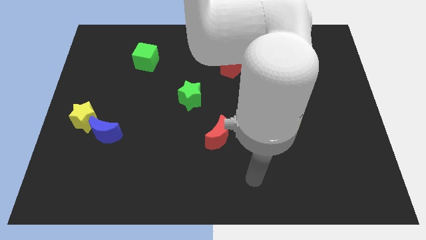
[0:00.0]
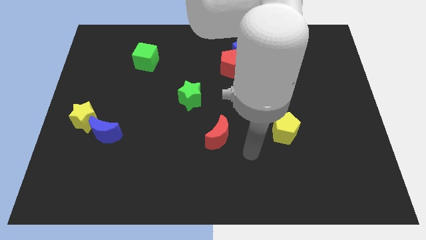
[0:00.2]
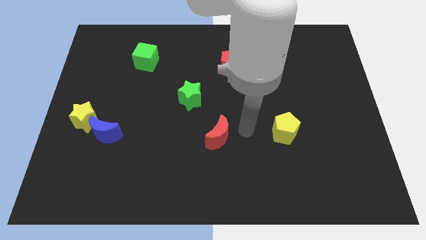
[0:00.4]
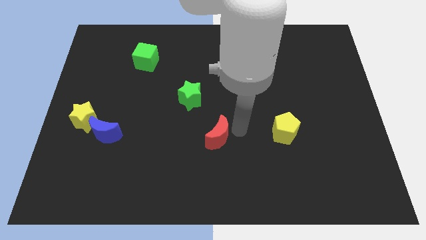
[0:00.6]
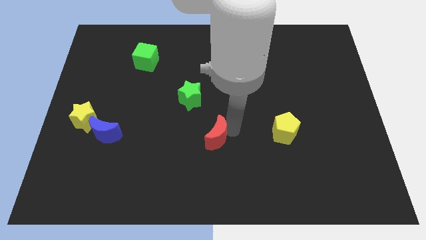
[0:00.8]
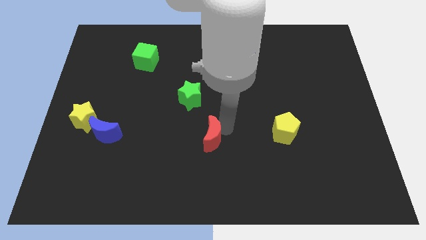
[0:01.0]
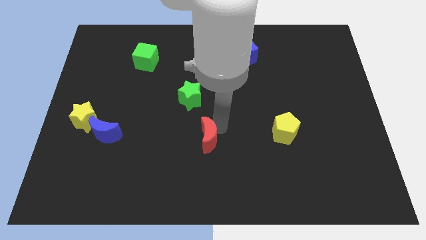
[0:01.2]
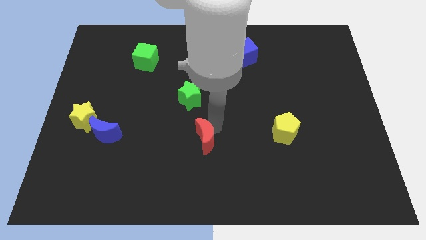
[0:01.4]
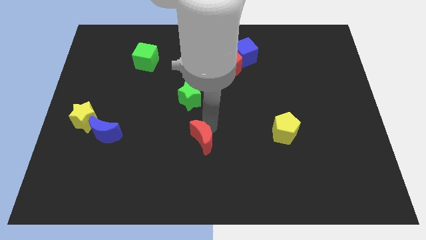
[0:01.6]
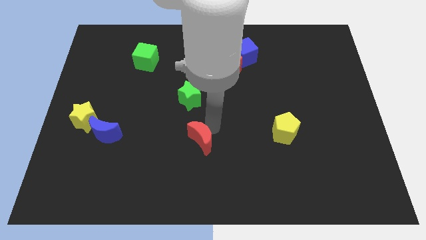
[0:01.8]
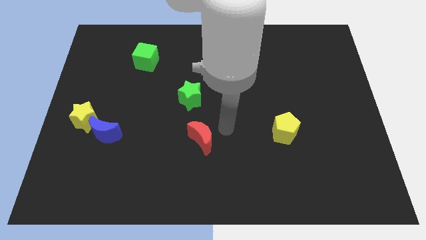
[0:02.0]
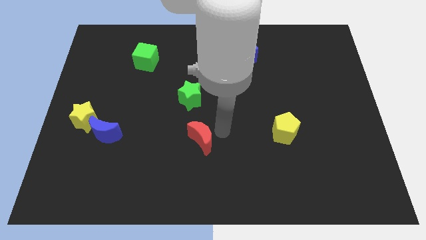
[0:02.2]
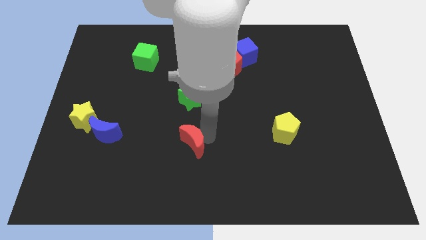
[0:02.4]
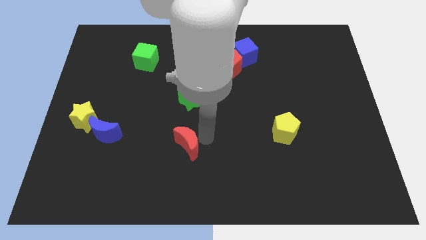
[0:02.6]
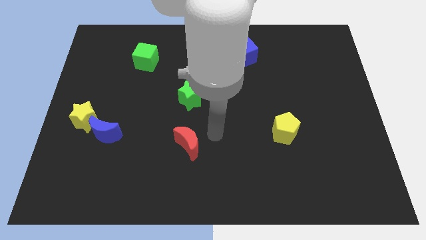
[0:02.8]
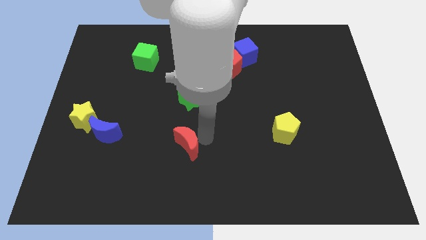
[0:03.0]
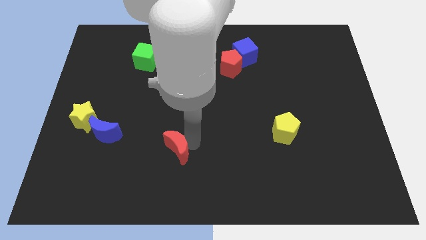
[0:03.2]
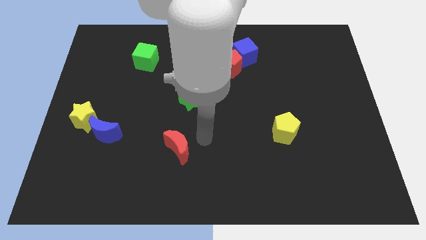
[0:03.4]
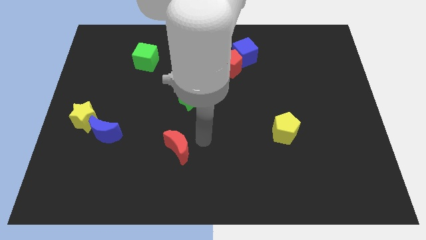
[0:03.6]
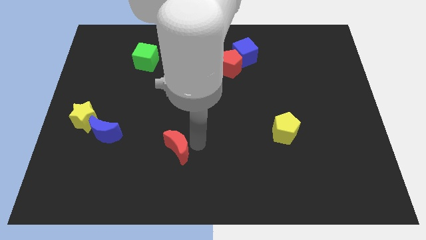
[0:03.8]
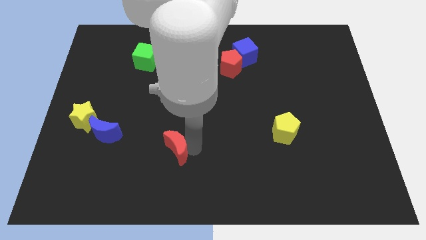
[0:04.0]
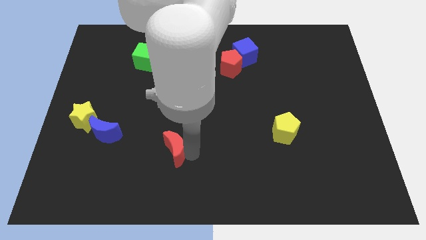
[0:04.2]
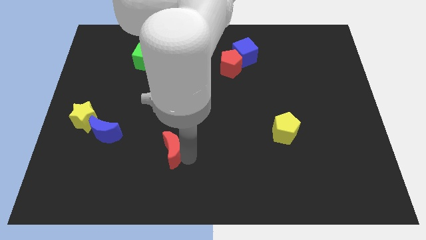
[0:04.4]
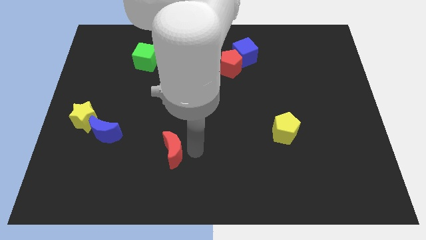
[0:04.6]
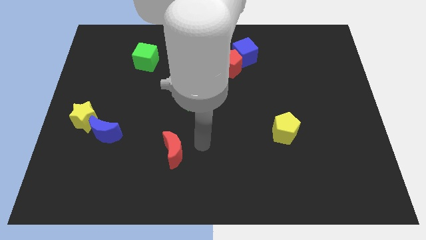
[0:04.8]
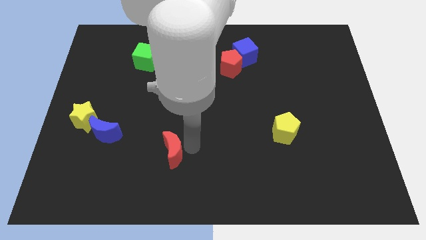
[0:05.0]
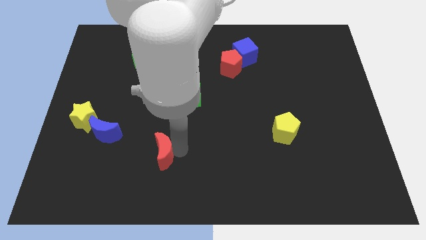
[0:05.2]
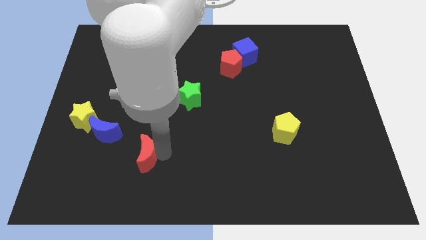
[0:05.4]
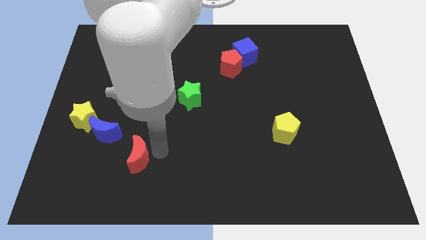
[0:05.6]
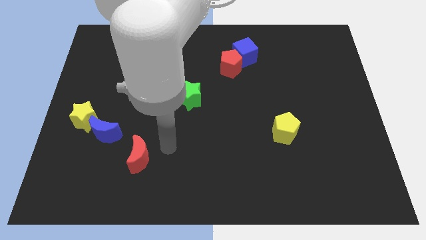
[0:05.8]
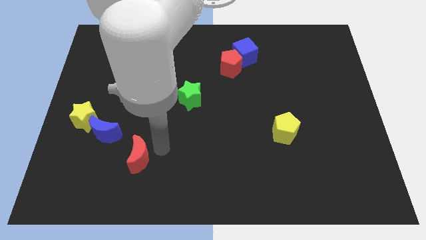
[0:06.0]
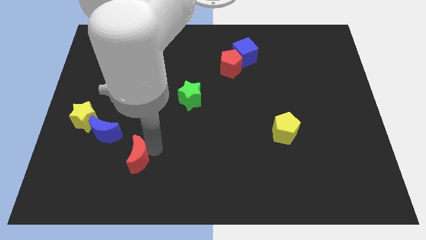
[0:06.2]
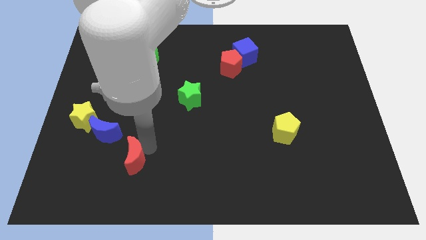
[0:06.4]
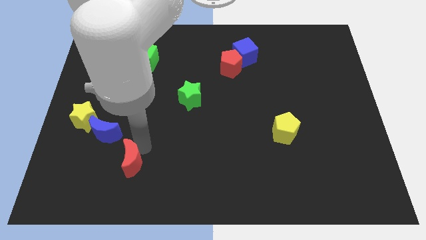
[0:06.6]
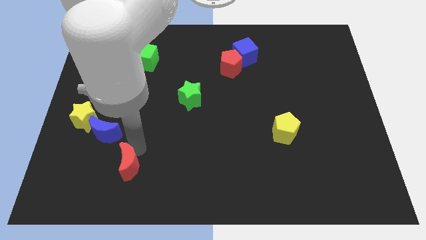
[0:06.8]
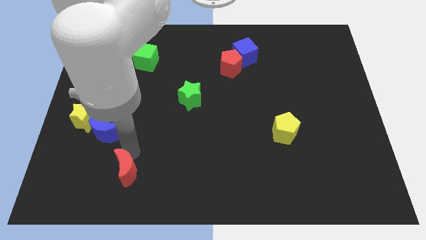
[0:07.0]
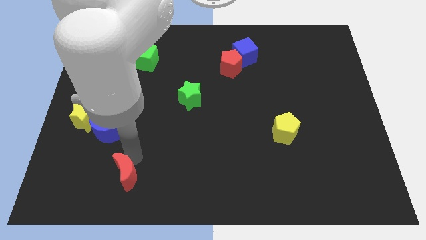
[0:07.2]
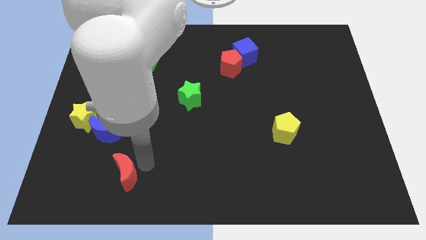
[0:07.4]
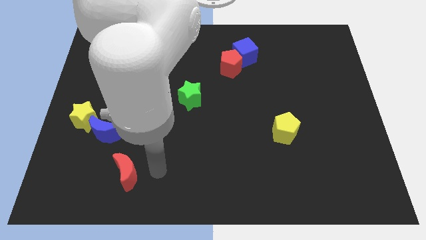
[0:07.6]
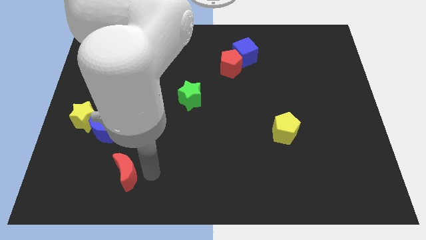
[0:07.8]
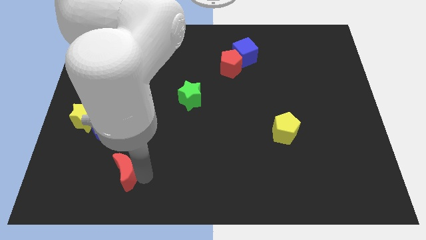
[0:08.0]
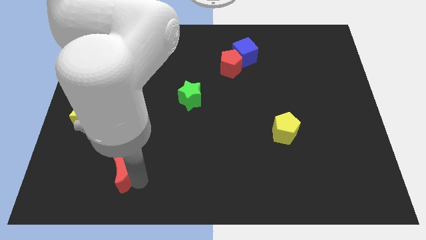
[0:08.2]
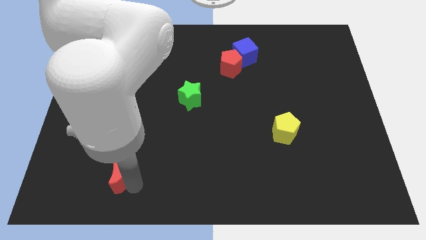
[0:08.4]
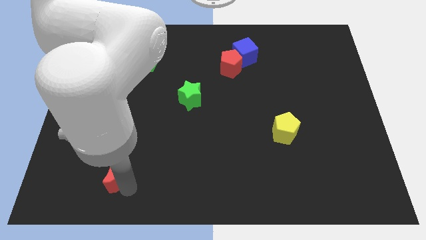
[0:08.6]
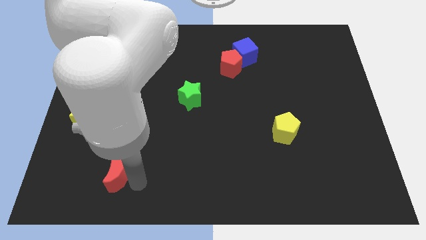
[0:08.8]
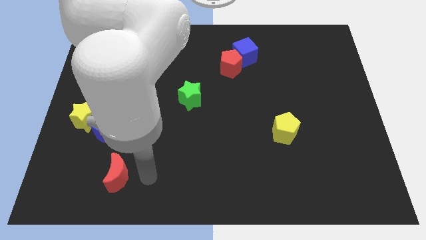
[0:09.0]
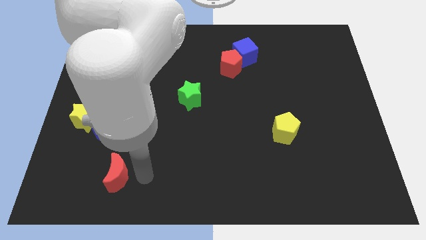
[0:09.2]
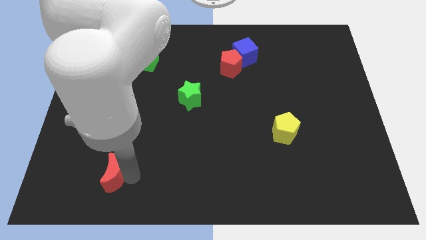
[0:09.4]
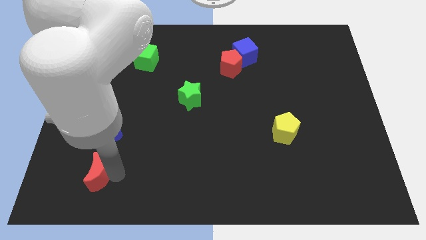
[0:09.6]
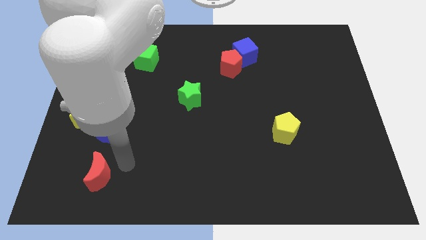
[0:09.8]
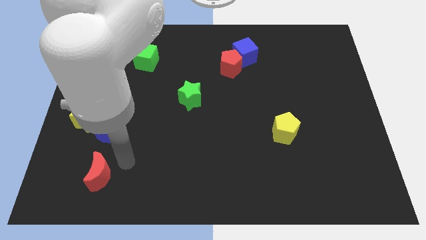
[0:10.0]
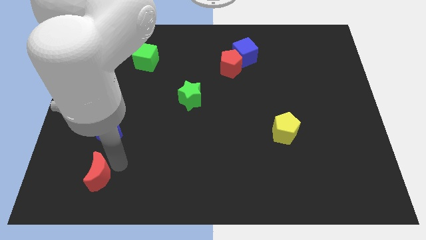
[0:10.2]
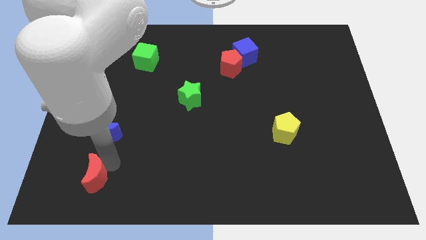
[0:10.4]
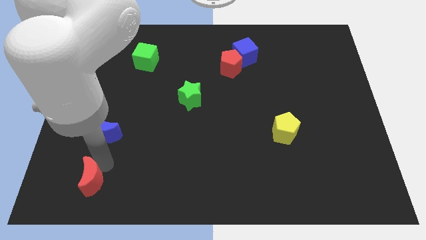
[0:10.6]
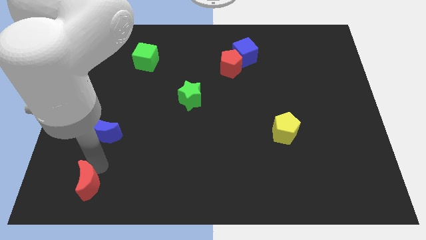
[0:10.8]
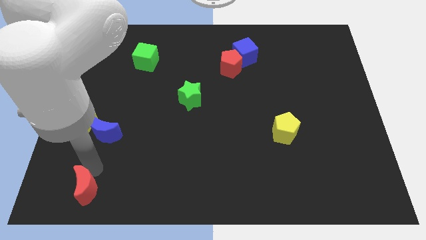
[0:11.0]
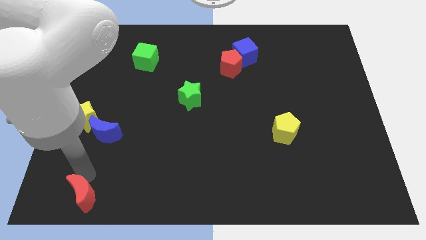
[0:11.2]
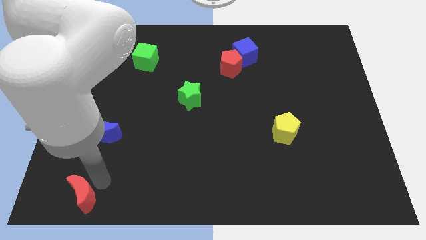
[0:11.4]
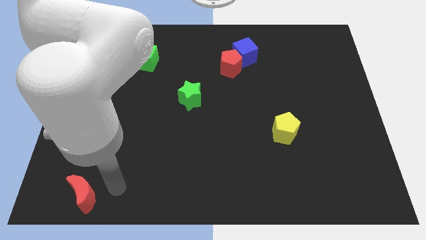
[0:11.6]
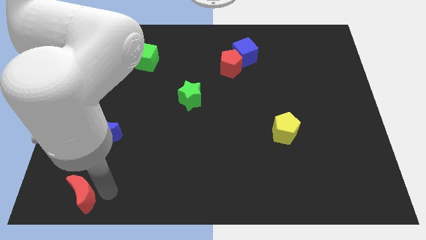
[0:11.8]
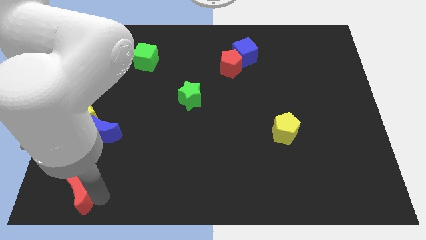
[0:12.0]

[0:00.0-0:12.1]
push the red moon to the bottom left corner

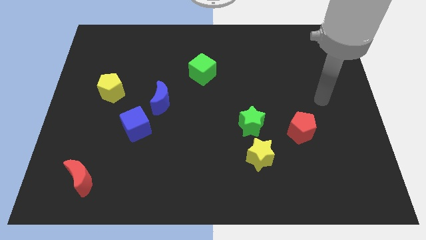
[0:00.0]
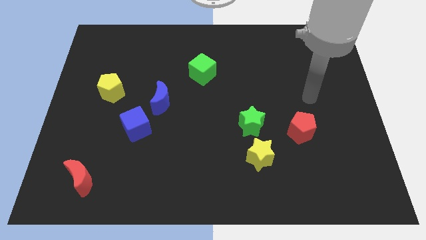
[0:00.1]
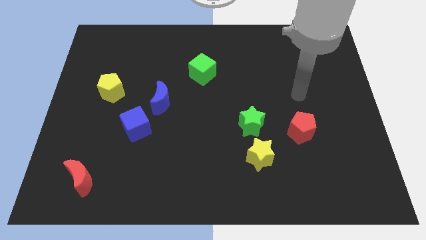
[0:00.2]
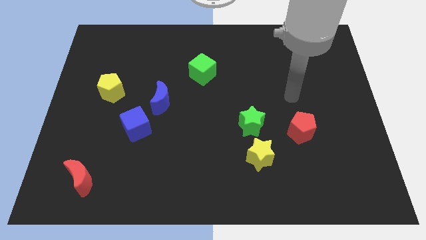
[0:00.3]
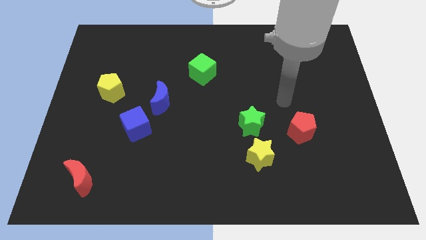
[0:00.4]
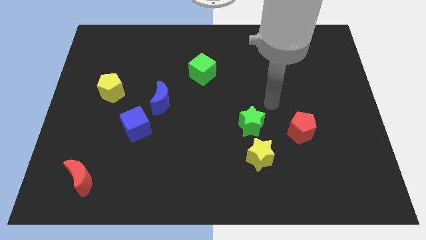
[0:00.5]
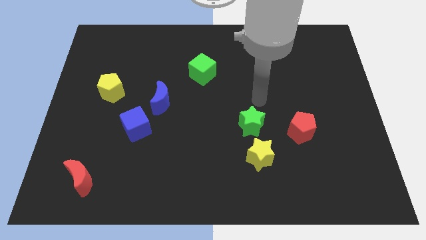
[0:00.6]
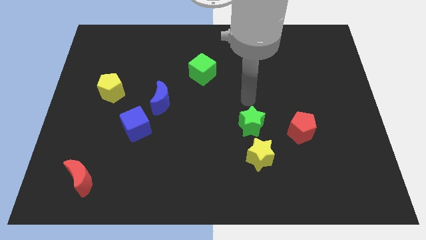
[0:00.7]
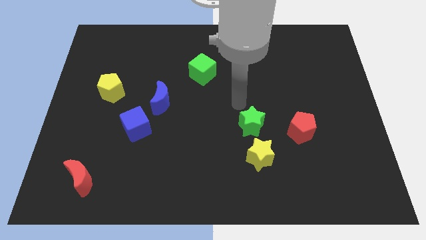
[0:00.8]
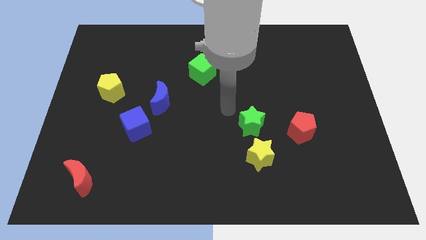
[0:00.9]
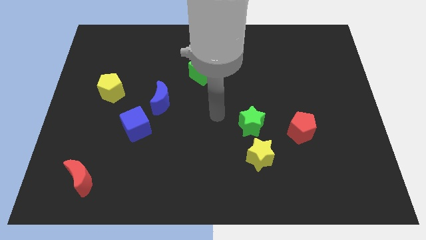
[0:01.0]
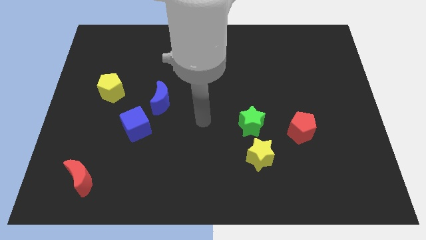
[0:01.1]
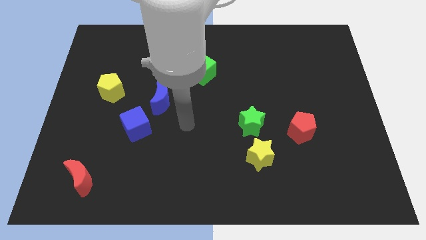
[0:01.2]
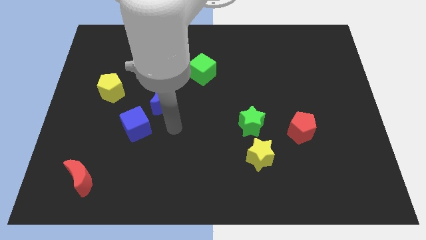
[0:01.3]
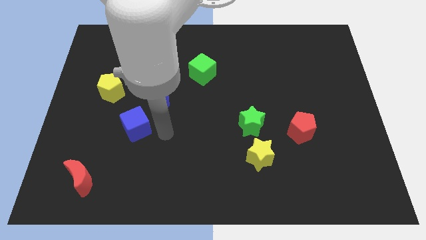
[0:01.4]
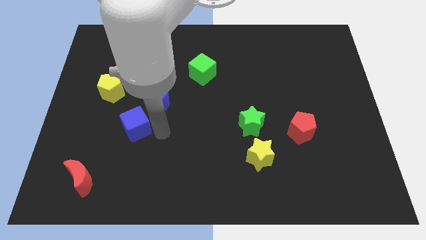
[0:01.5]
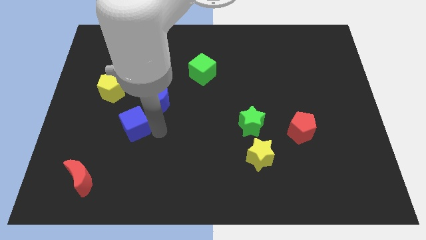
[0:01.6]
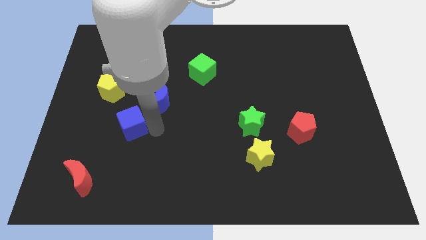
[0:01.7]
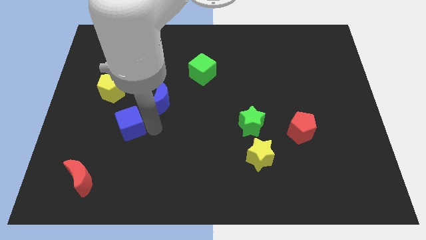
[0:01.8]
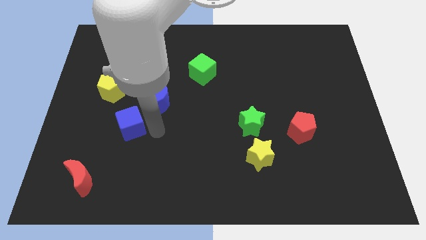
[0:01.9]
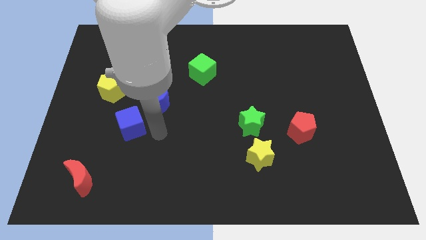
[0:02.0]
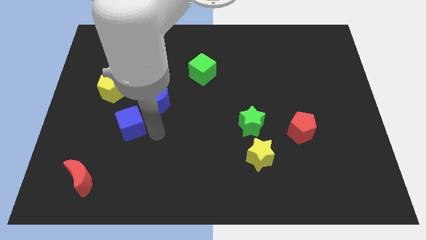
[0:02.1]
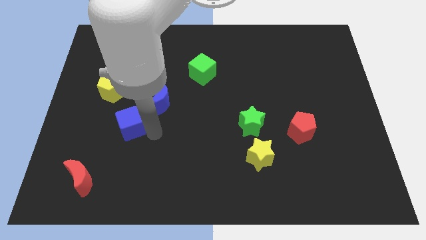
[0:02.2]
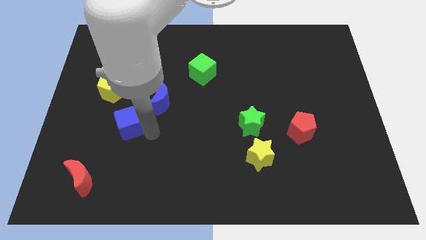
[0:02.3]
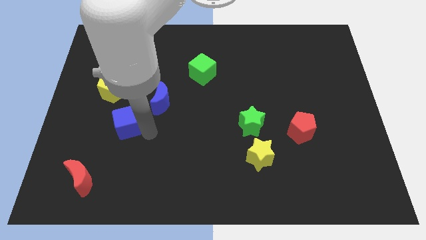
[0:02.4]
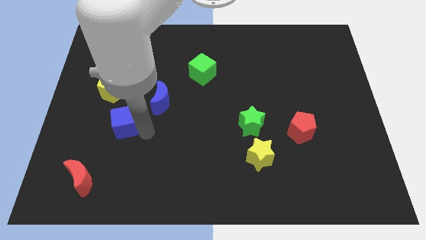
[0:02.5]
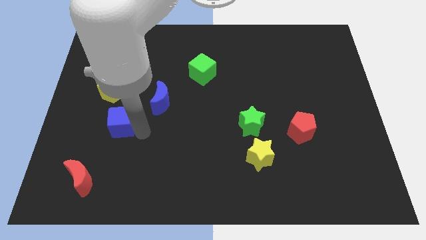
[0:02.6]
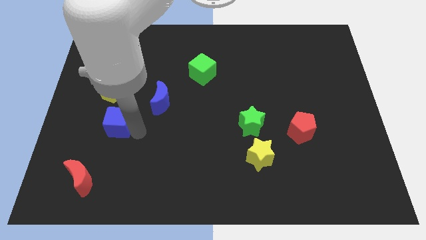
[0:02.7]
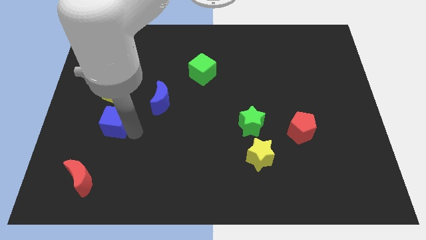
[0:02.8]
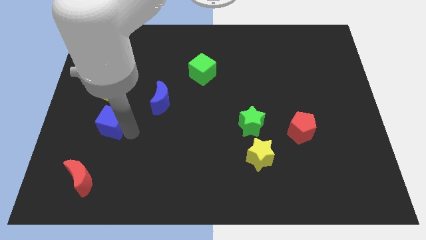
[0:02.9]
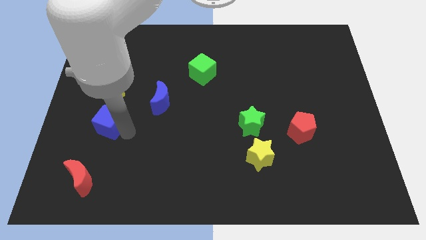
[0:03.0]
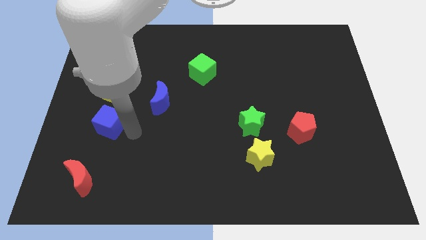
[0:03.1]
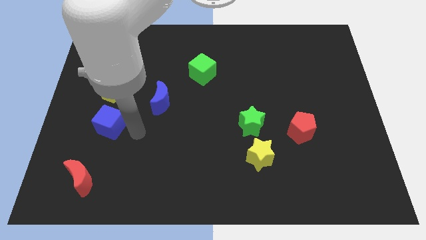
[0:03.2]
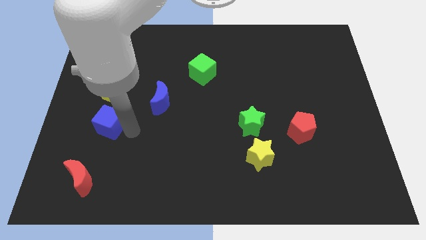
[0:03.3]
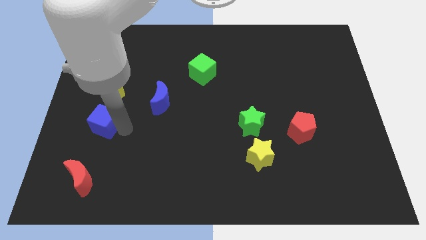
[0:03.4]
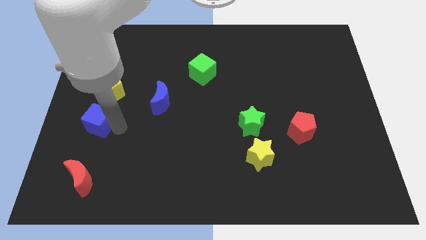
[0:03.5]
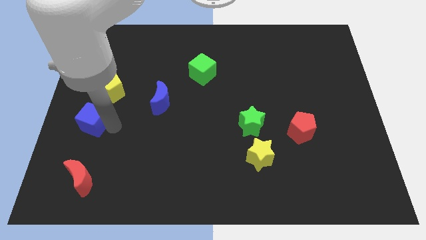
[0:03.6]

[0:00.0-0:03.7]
put the blue cube to the left side of the board
